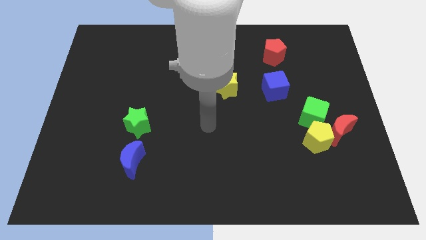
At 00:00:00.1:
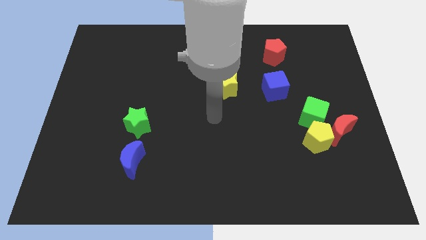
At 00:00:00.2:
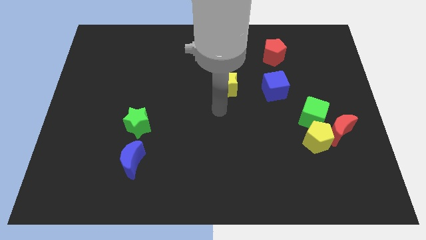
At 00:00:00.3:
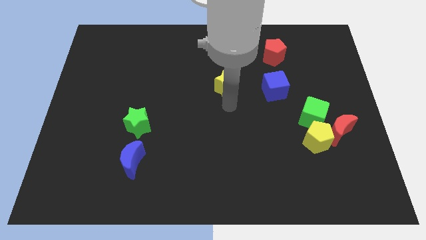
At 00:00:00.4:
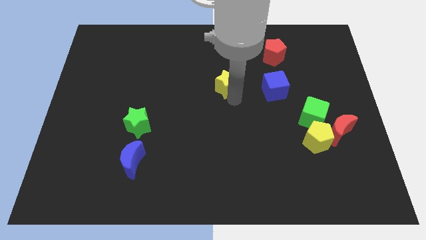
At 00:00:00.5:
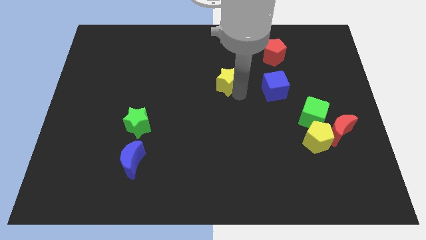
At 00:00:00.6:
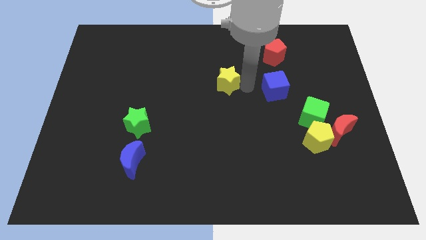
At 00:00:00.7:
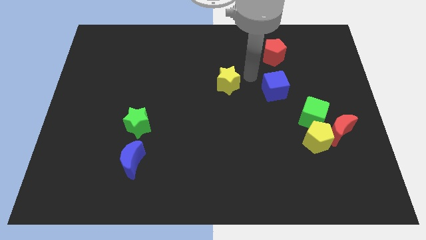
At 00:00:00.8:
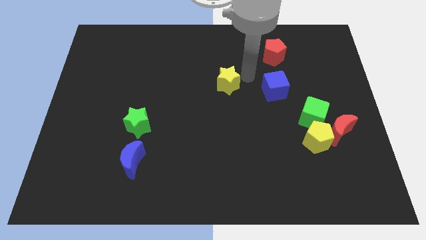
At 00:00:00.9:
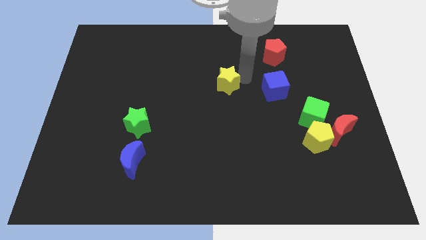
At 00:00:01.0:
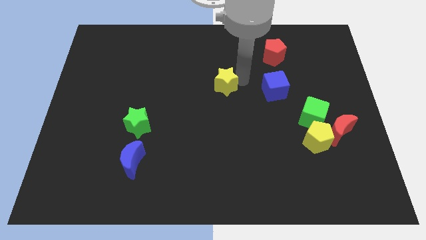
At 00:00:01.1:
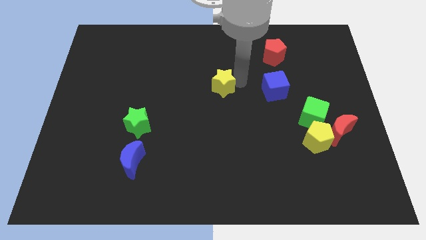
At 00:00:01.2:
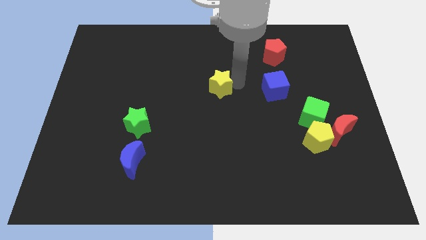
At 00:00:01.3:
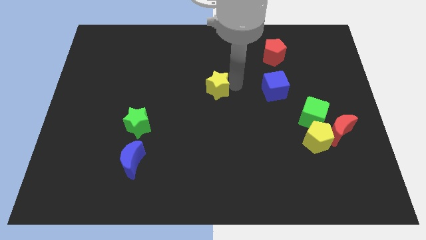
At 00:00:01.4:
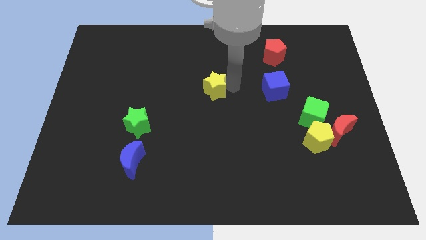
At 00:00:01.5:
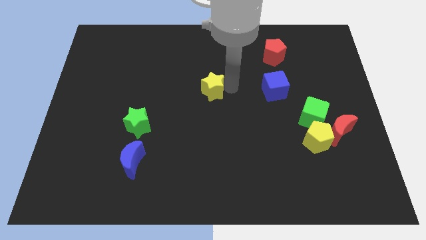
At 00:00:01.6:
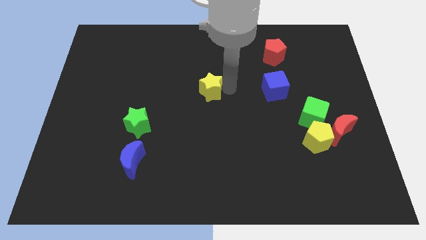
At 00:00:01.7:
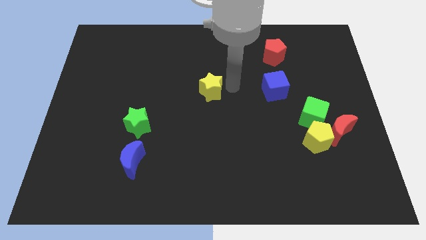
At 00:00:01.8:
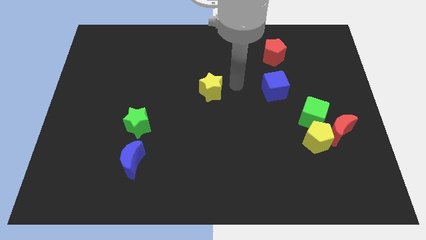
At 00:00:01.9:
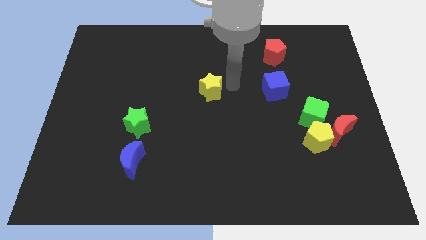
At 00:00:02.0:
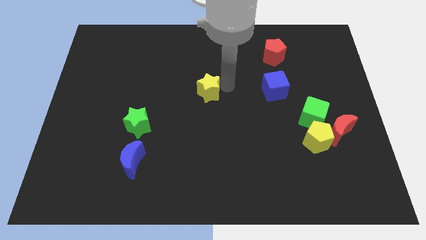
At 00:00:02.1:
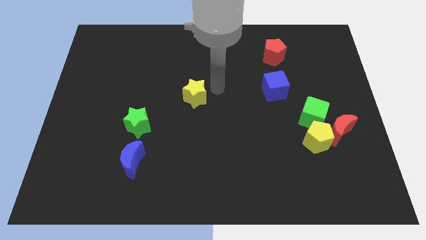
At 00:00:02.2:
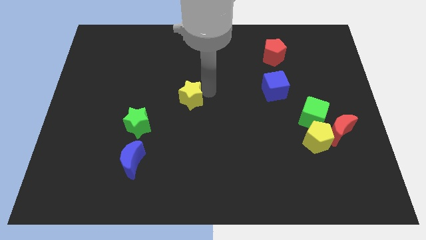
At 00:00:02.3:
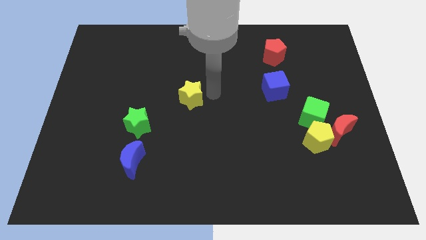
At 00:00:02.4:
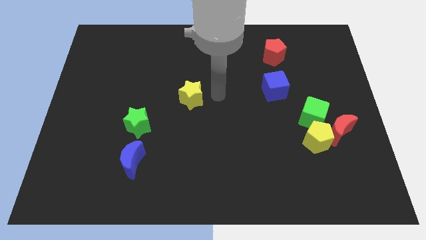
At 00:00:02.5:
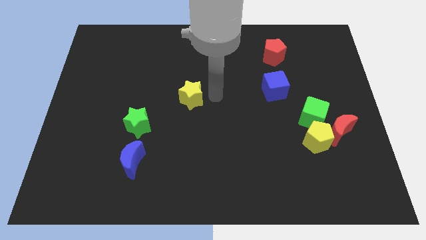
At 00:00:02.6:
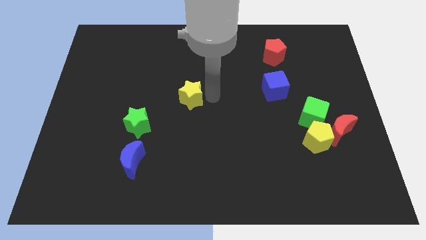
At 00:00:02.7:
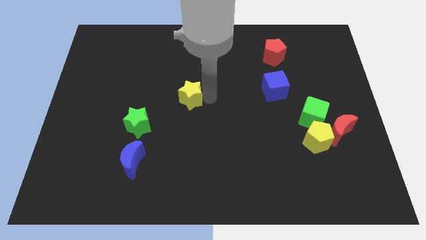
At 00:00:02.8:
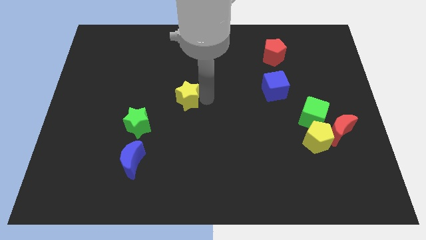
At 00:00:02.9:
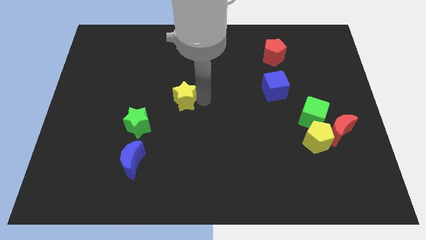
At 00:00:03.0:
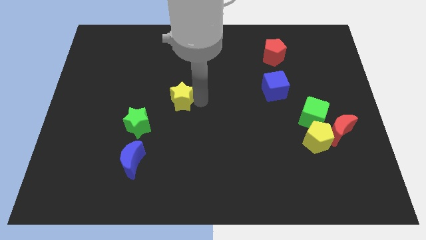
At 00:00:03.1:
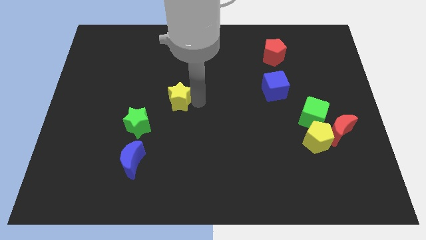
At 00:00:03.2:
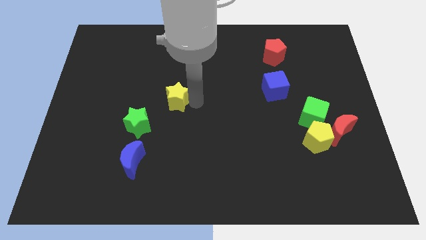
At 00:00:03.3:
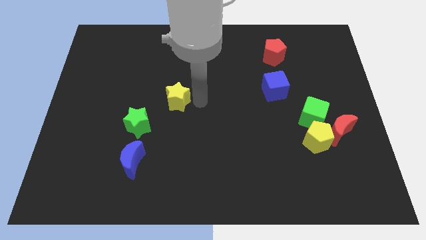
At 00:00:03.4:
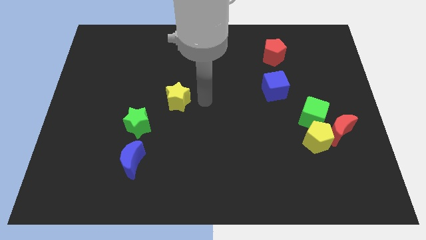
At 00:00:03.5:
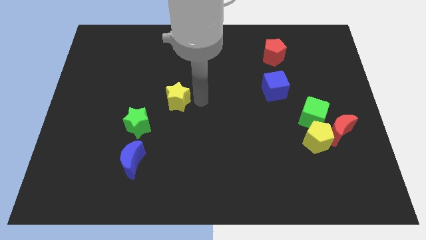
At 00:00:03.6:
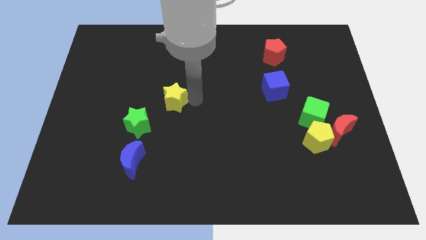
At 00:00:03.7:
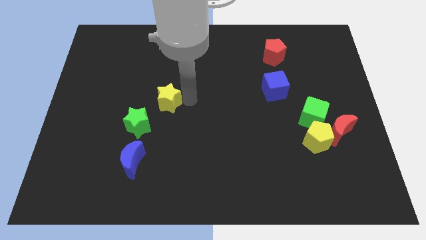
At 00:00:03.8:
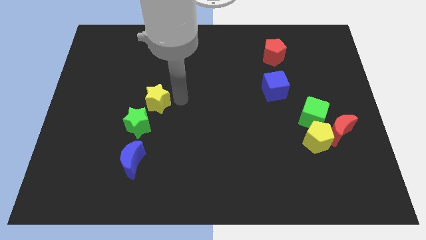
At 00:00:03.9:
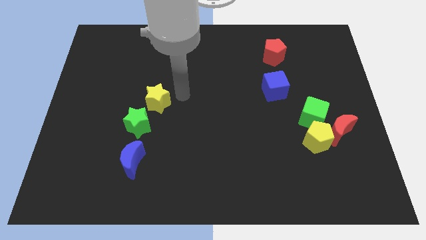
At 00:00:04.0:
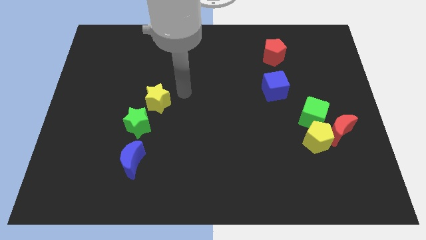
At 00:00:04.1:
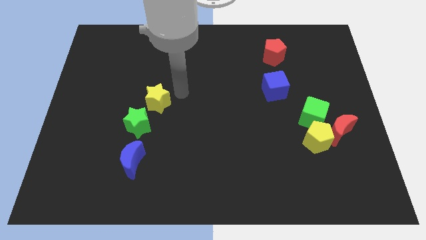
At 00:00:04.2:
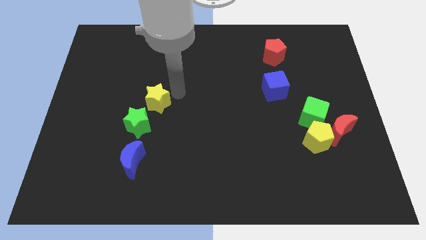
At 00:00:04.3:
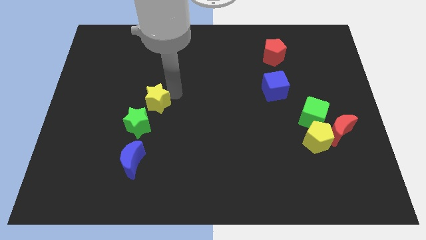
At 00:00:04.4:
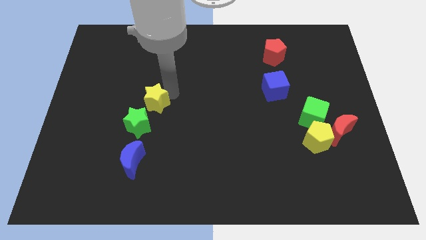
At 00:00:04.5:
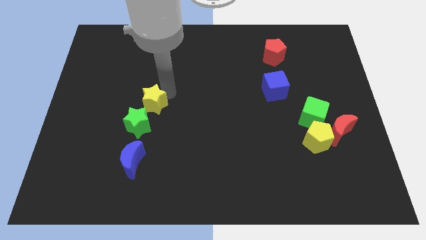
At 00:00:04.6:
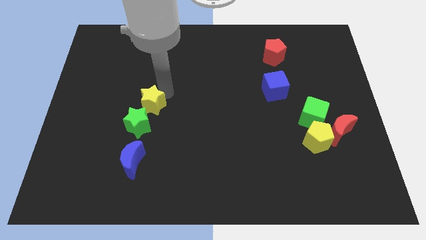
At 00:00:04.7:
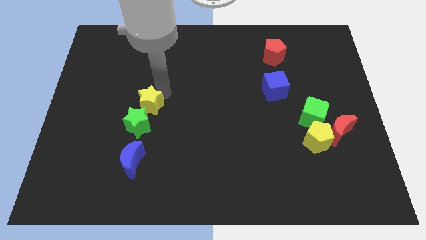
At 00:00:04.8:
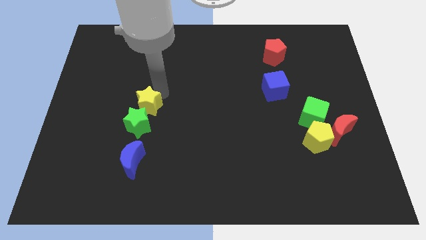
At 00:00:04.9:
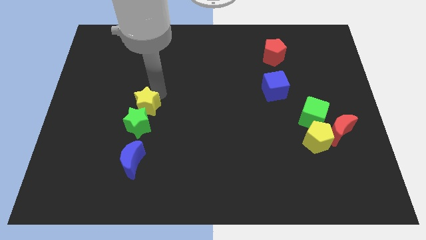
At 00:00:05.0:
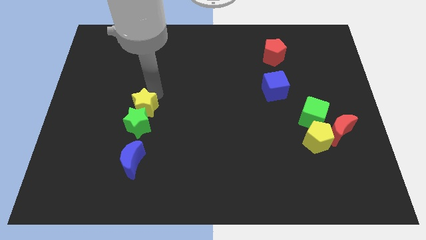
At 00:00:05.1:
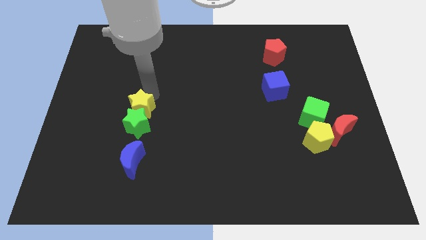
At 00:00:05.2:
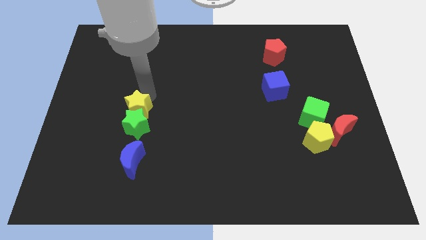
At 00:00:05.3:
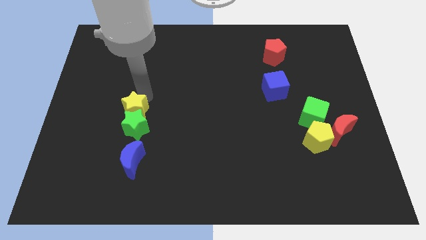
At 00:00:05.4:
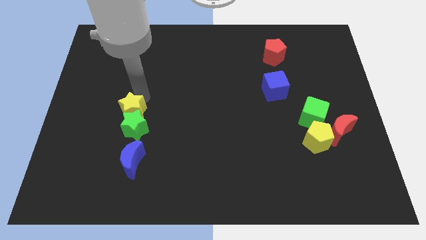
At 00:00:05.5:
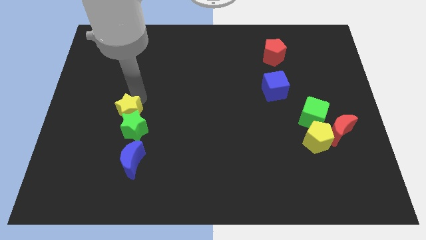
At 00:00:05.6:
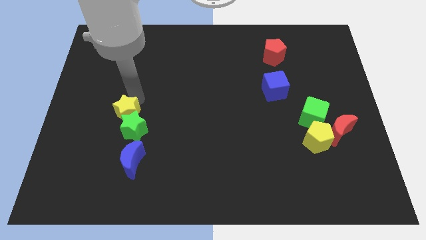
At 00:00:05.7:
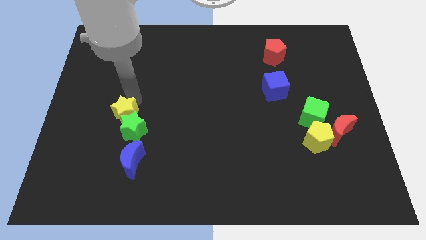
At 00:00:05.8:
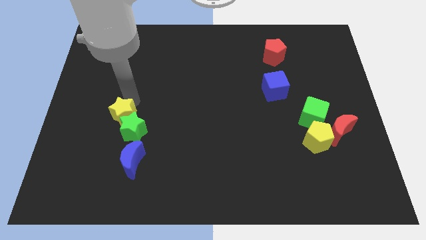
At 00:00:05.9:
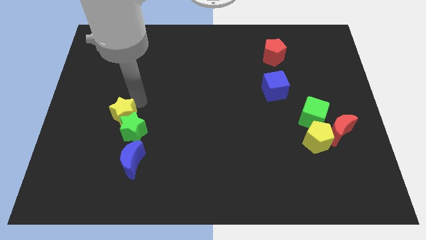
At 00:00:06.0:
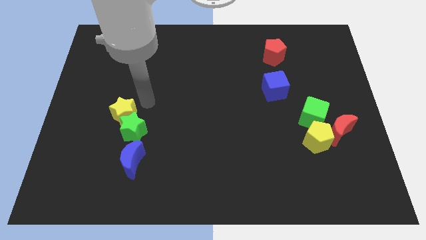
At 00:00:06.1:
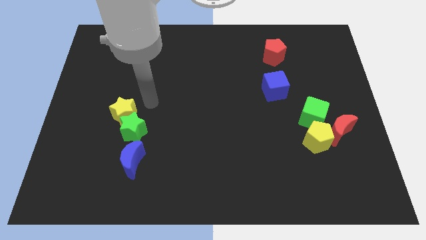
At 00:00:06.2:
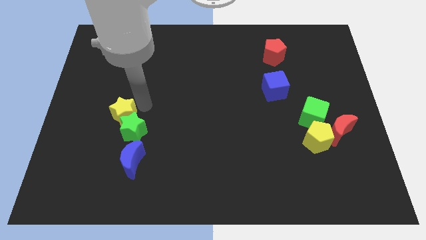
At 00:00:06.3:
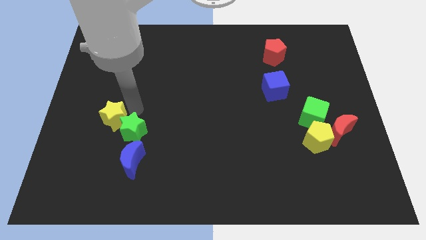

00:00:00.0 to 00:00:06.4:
put the yellow star left of the green star

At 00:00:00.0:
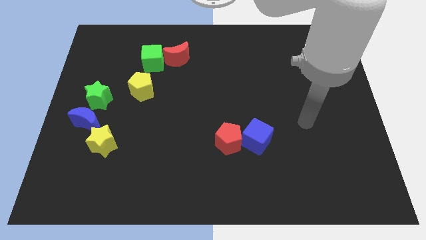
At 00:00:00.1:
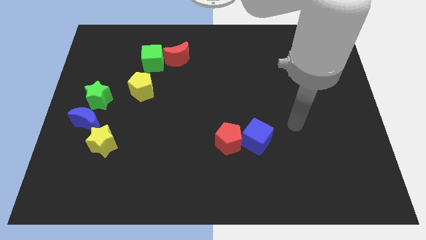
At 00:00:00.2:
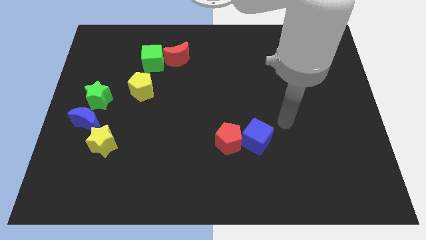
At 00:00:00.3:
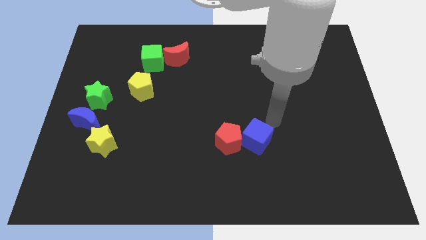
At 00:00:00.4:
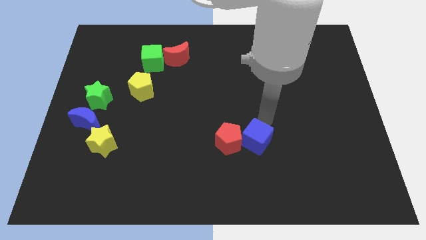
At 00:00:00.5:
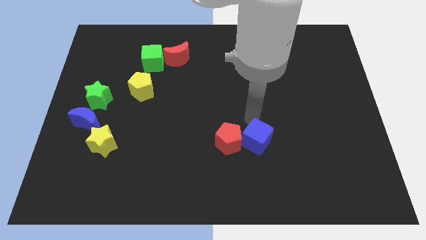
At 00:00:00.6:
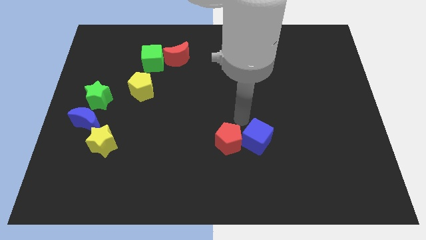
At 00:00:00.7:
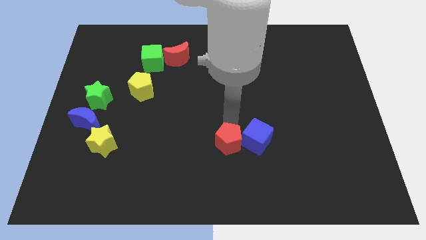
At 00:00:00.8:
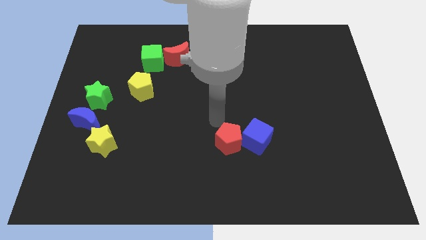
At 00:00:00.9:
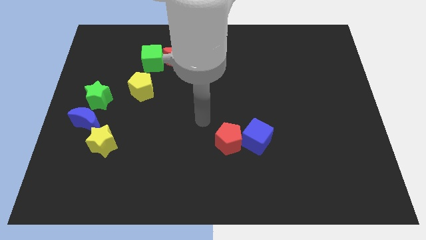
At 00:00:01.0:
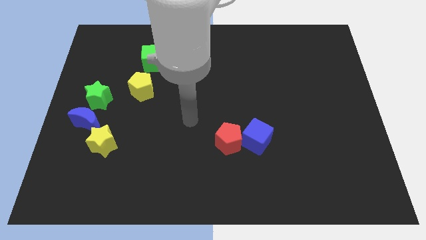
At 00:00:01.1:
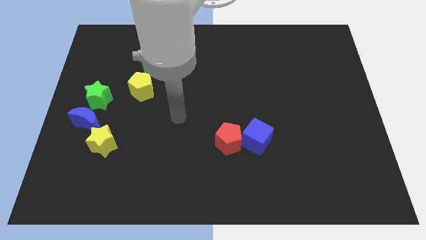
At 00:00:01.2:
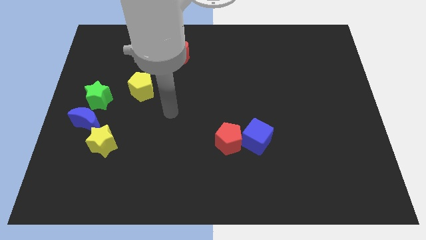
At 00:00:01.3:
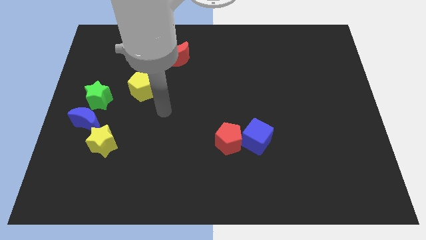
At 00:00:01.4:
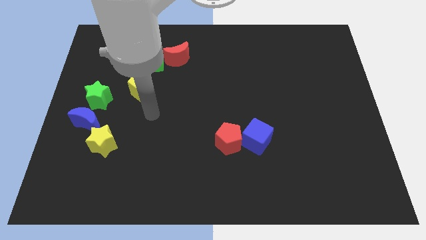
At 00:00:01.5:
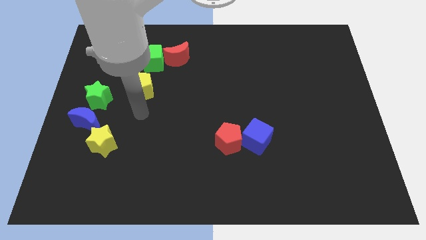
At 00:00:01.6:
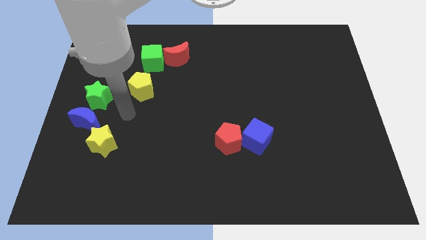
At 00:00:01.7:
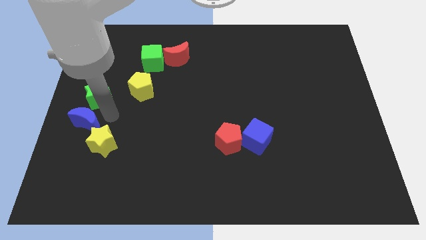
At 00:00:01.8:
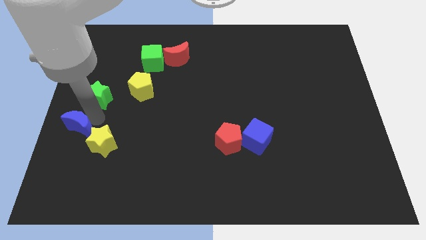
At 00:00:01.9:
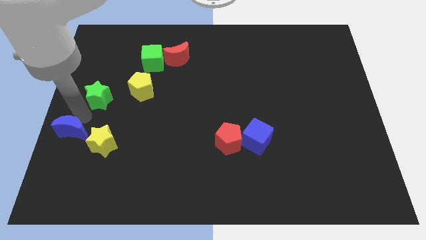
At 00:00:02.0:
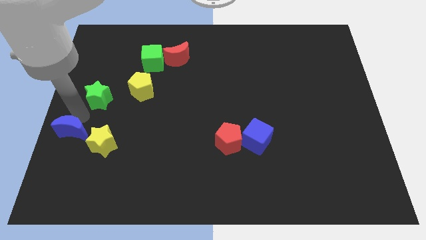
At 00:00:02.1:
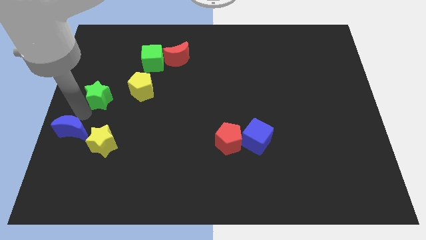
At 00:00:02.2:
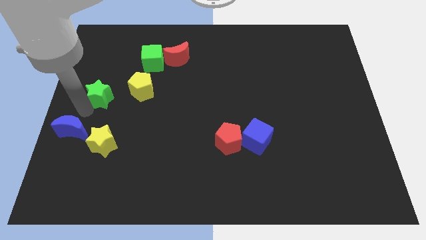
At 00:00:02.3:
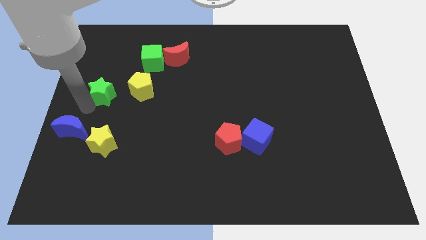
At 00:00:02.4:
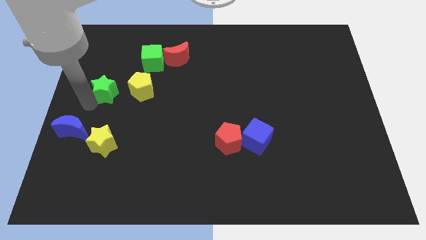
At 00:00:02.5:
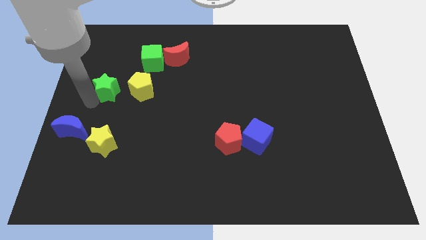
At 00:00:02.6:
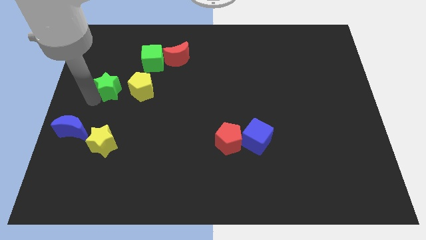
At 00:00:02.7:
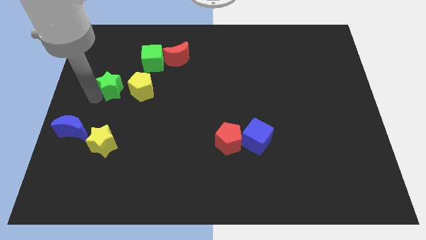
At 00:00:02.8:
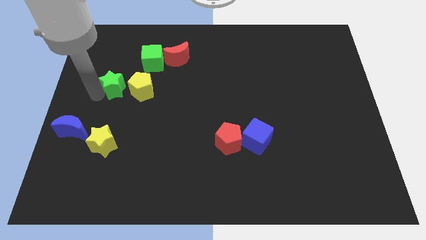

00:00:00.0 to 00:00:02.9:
move the green star to the top left side of the yellow pentagon
